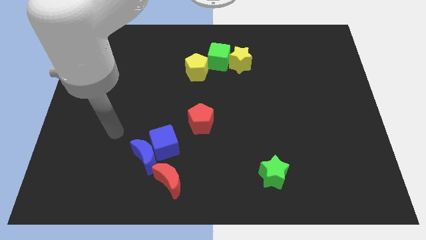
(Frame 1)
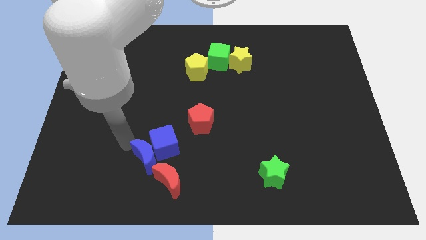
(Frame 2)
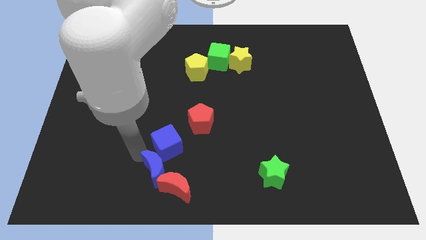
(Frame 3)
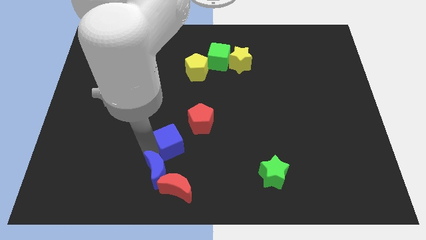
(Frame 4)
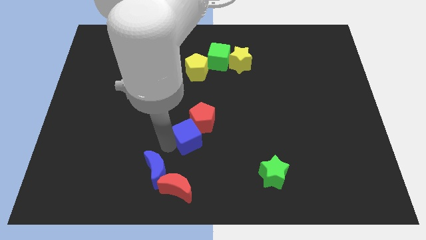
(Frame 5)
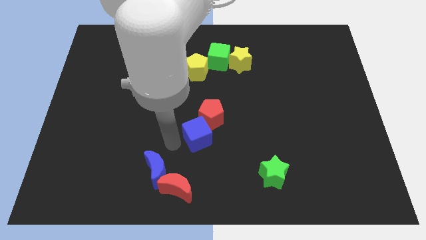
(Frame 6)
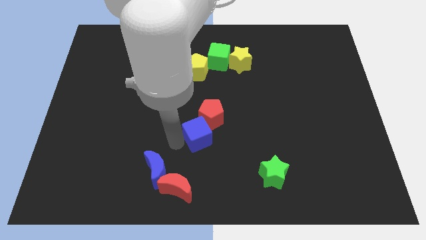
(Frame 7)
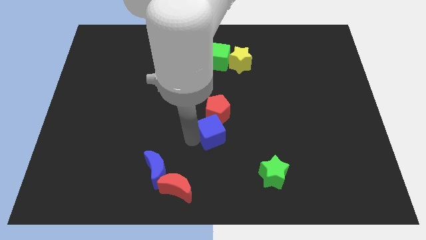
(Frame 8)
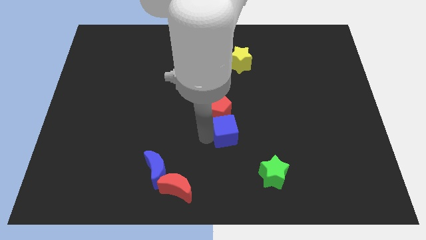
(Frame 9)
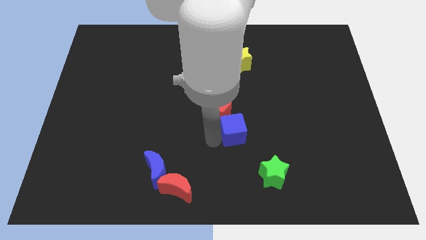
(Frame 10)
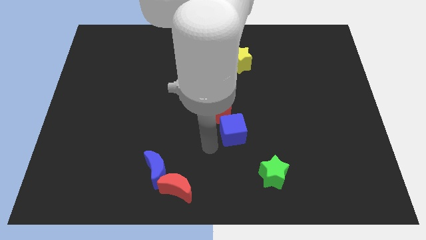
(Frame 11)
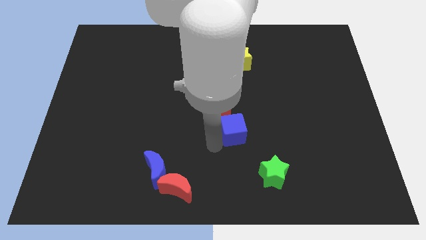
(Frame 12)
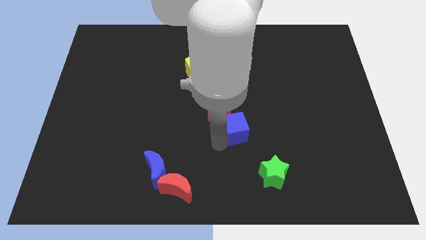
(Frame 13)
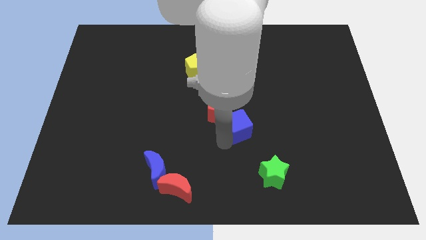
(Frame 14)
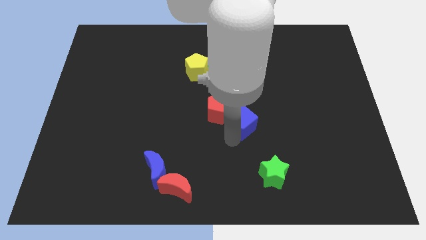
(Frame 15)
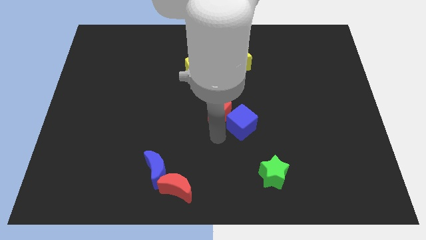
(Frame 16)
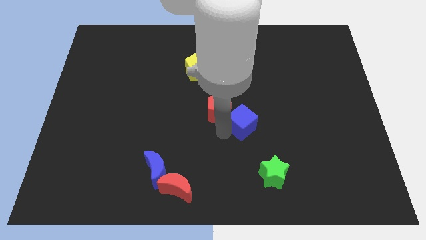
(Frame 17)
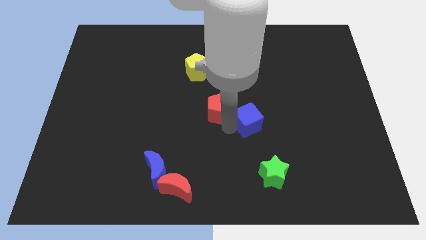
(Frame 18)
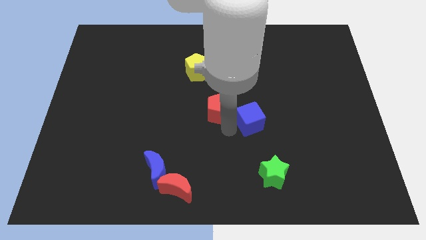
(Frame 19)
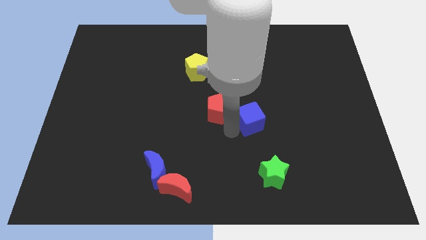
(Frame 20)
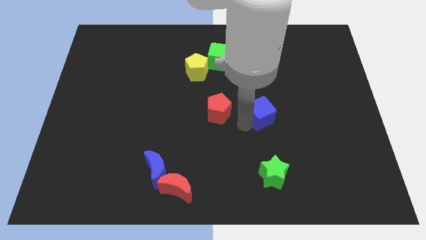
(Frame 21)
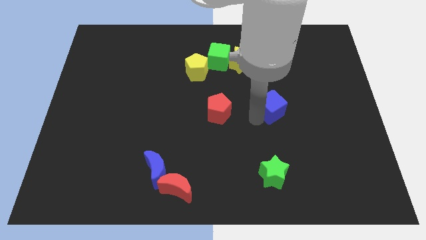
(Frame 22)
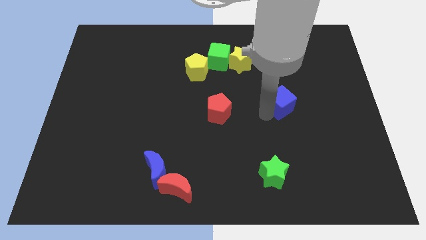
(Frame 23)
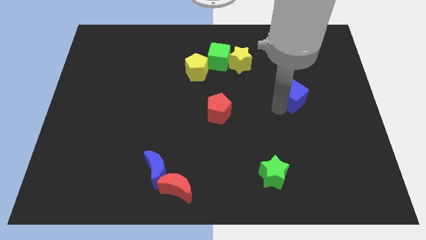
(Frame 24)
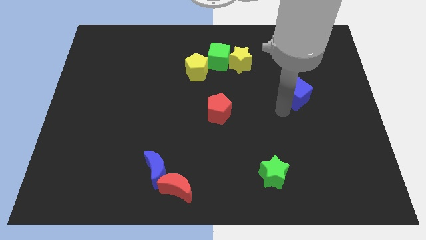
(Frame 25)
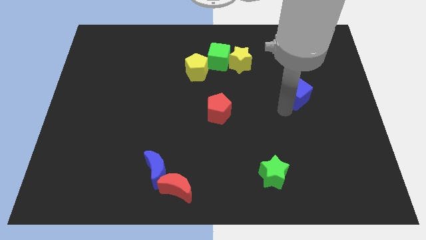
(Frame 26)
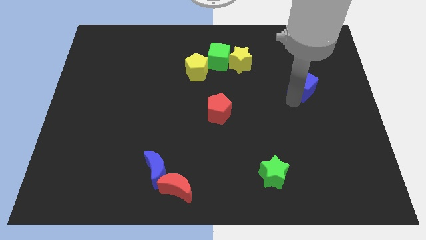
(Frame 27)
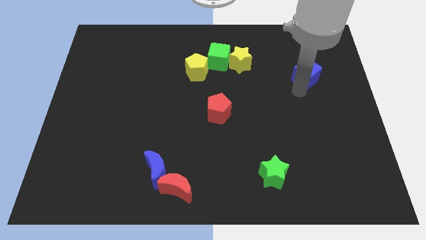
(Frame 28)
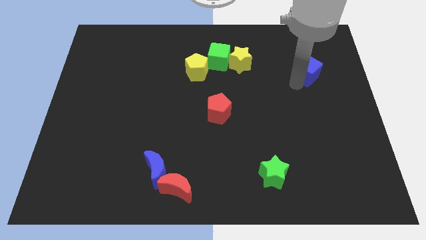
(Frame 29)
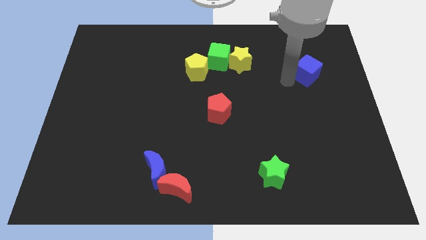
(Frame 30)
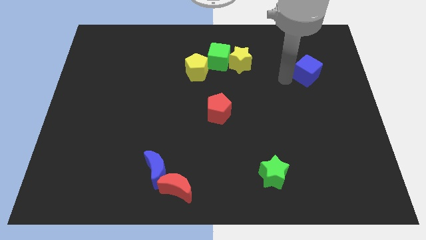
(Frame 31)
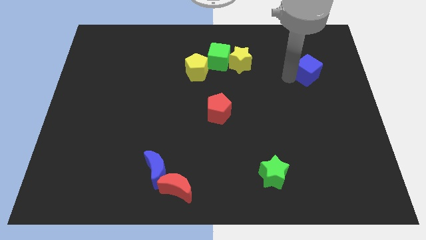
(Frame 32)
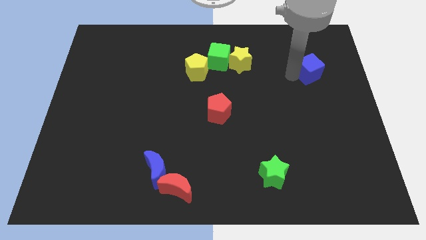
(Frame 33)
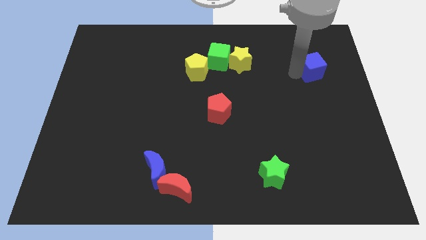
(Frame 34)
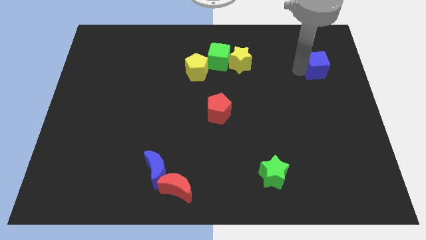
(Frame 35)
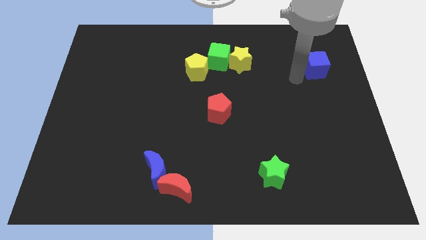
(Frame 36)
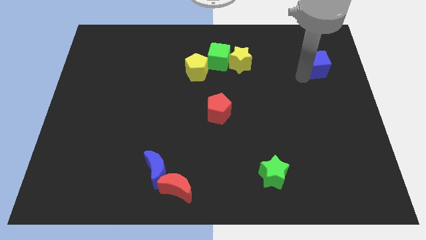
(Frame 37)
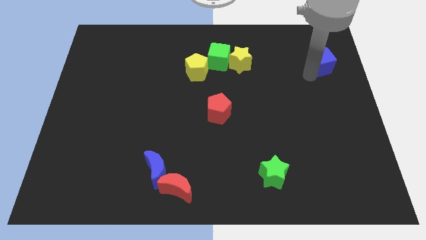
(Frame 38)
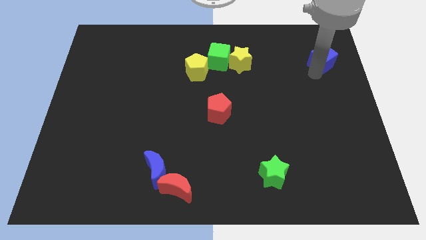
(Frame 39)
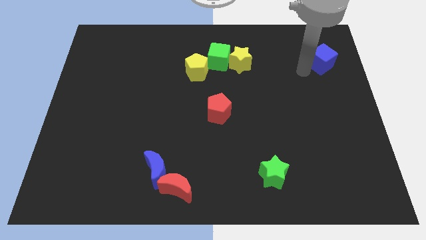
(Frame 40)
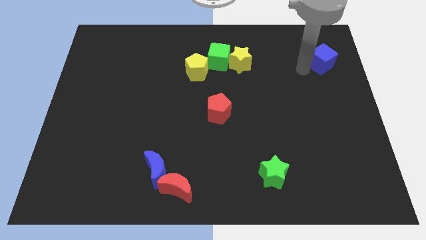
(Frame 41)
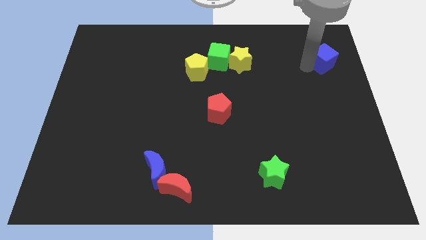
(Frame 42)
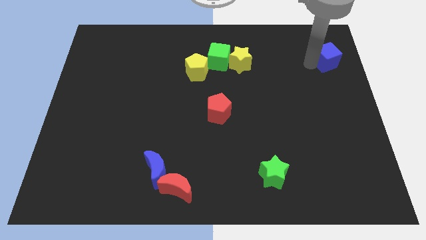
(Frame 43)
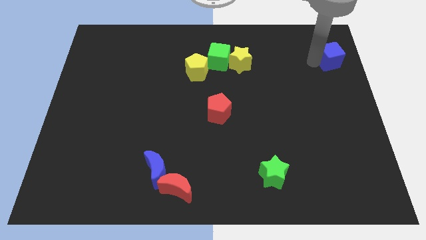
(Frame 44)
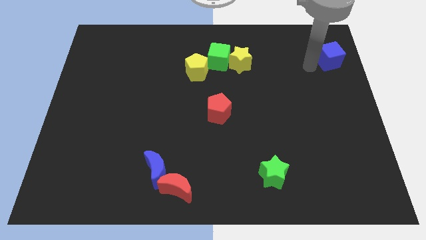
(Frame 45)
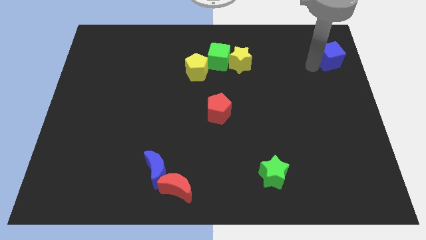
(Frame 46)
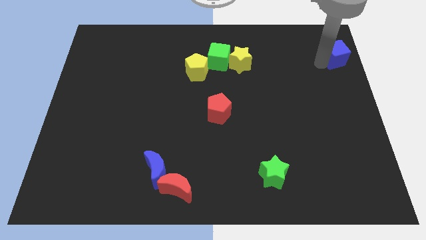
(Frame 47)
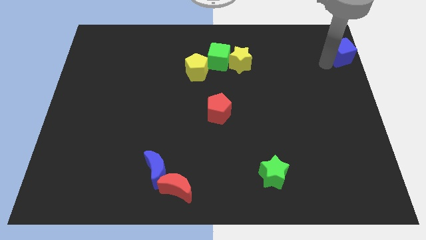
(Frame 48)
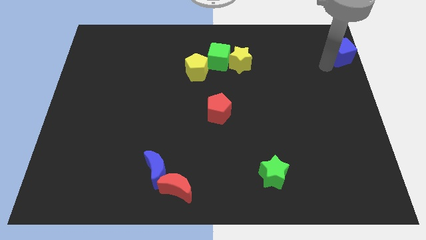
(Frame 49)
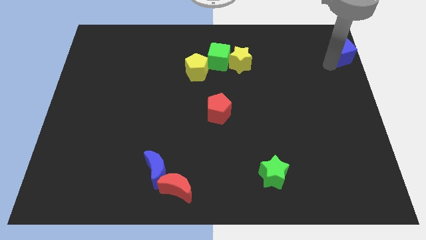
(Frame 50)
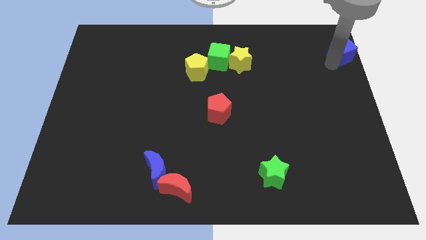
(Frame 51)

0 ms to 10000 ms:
move the blue cube to the top right

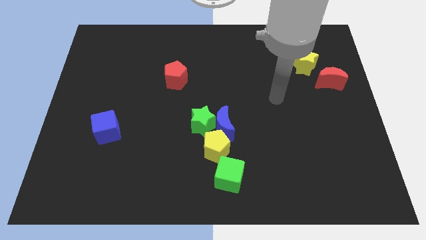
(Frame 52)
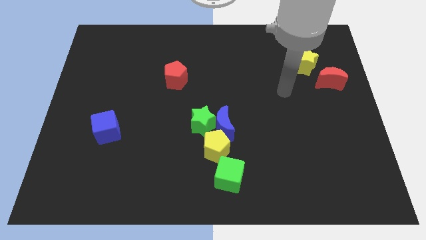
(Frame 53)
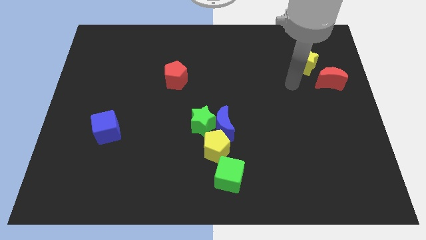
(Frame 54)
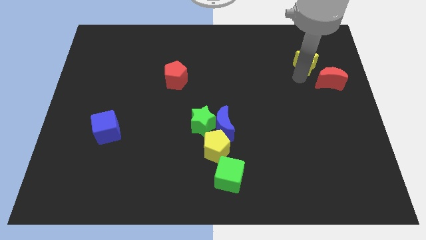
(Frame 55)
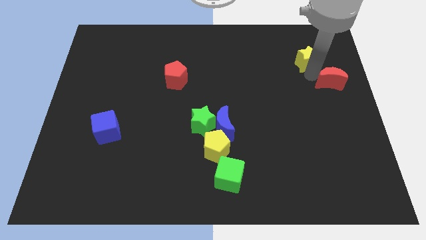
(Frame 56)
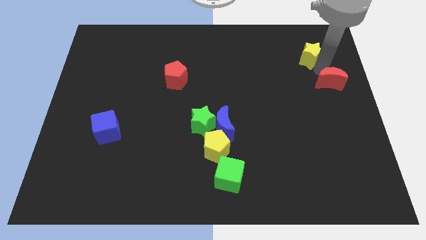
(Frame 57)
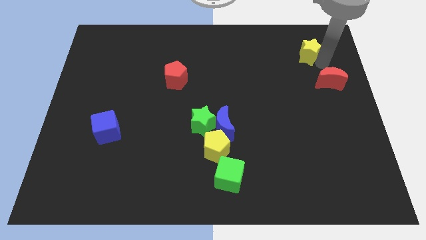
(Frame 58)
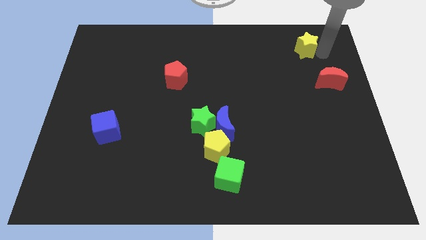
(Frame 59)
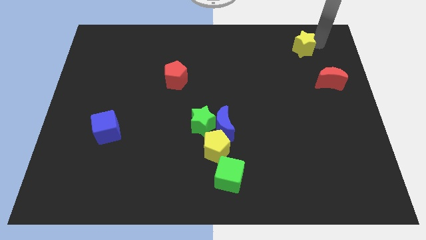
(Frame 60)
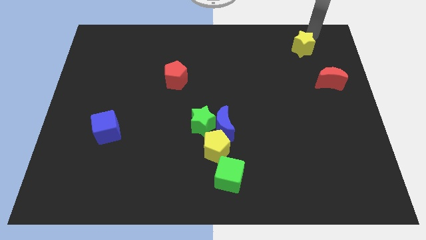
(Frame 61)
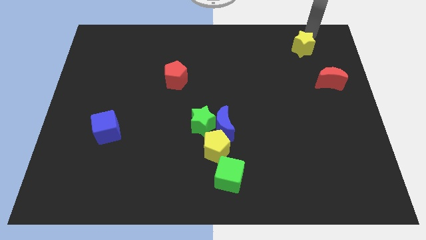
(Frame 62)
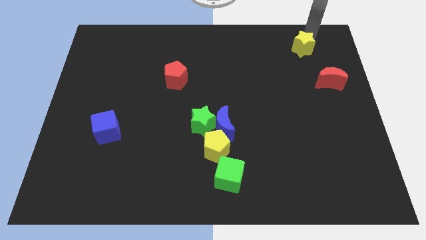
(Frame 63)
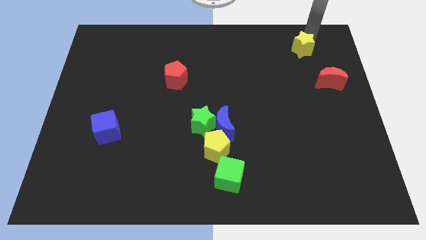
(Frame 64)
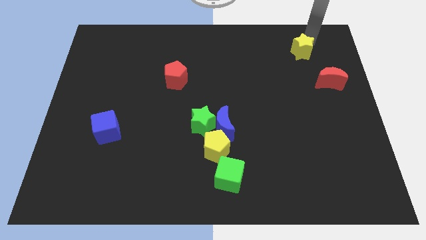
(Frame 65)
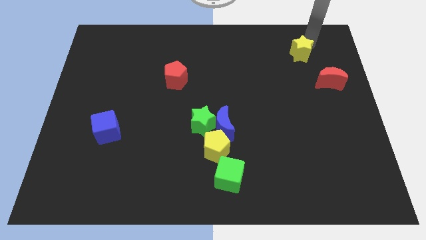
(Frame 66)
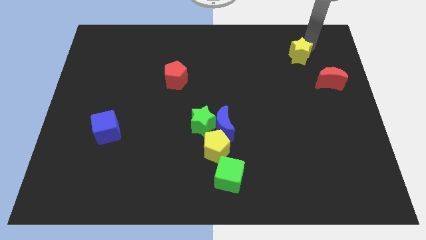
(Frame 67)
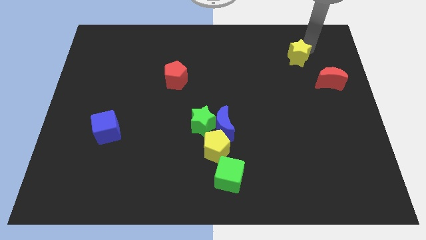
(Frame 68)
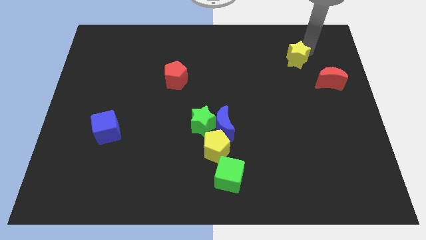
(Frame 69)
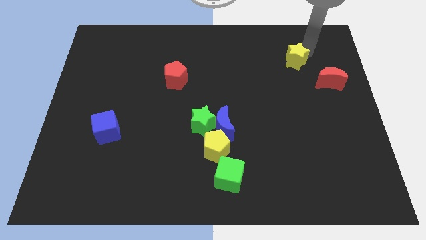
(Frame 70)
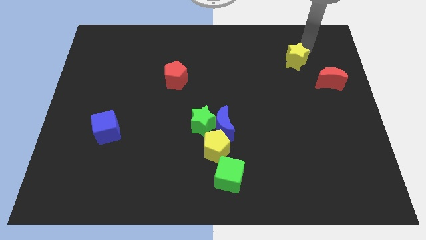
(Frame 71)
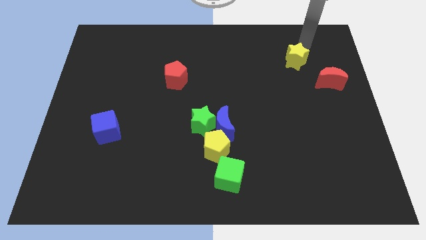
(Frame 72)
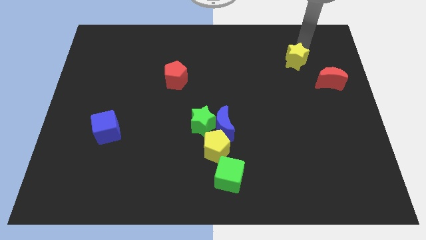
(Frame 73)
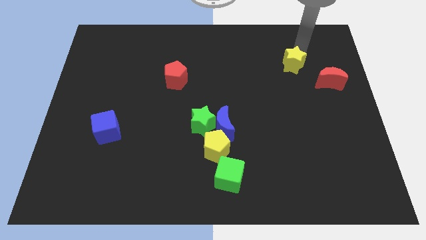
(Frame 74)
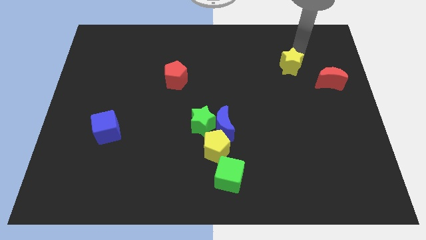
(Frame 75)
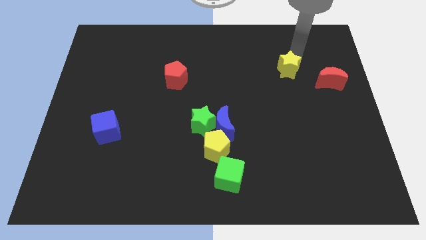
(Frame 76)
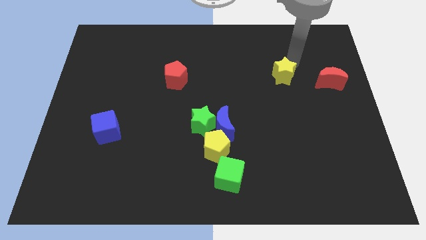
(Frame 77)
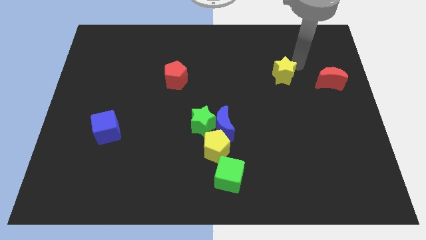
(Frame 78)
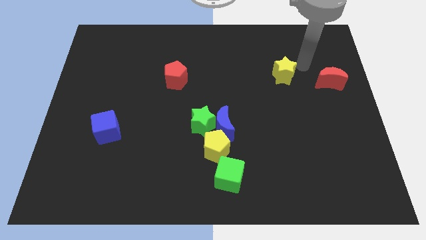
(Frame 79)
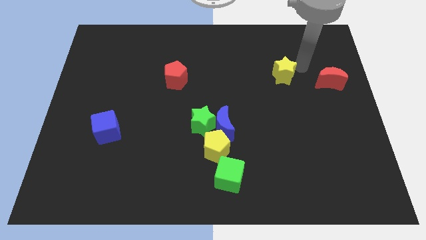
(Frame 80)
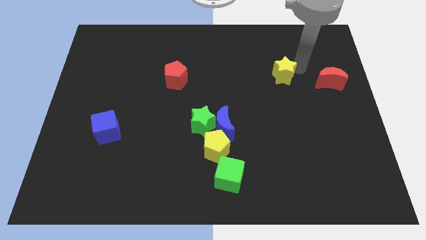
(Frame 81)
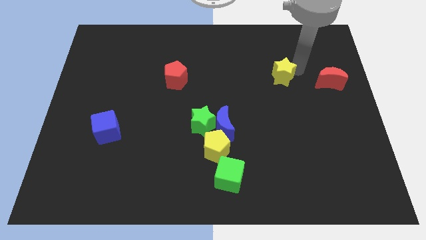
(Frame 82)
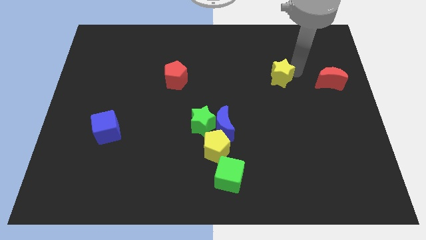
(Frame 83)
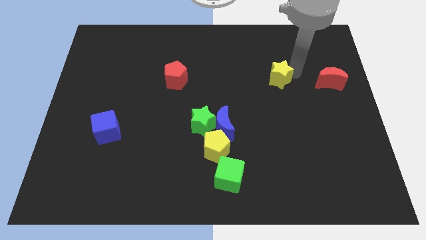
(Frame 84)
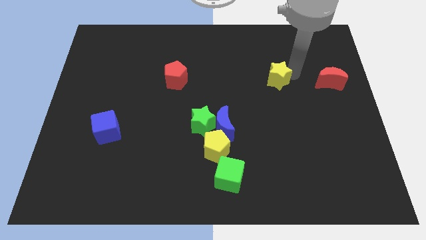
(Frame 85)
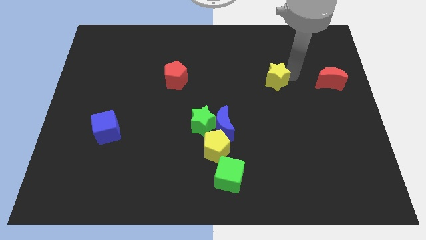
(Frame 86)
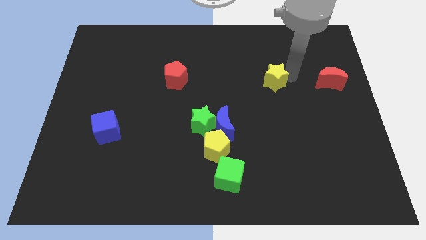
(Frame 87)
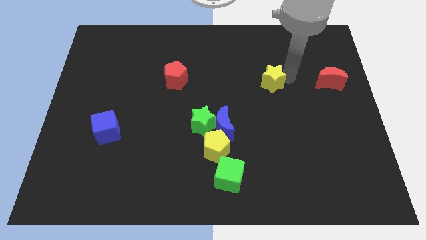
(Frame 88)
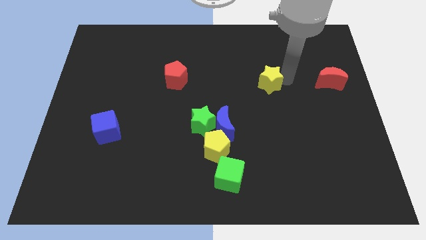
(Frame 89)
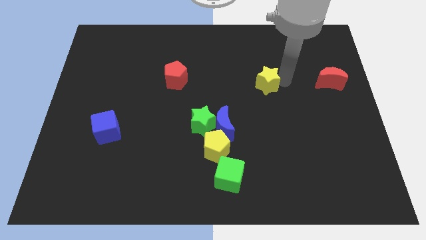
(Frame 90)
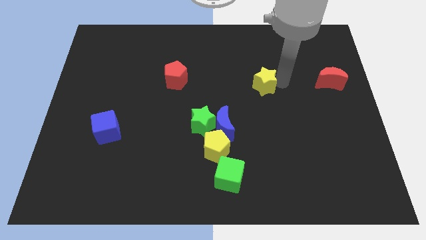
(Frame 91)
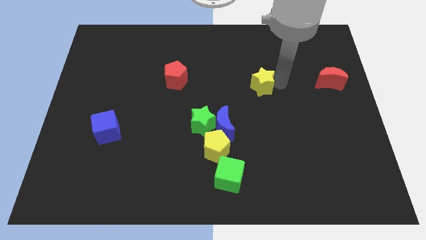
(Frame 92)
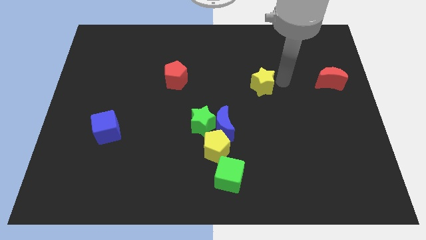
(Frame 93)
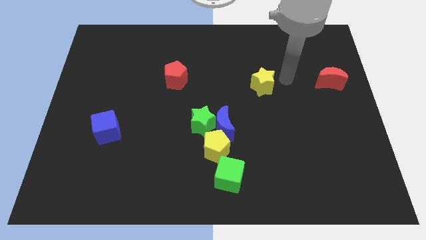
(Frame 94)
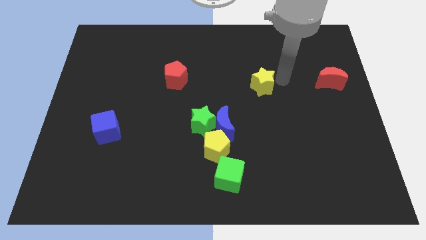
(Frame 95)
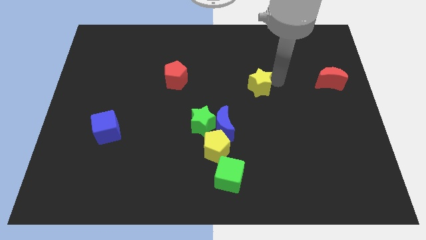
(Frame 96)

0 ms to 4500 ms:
push the yellow star to the middle of the board
